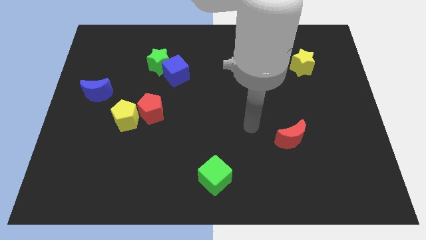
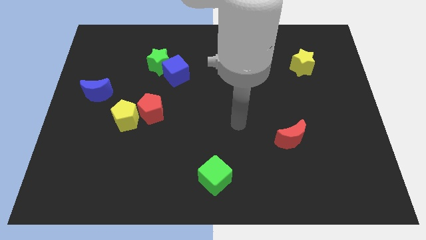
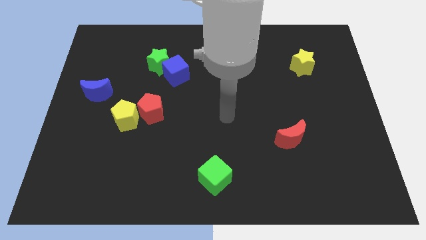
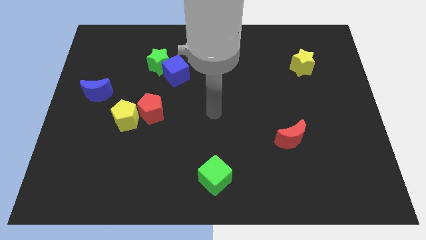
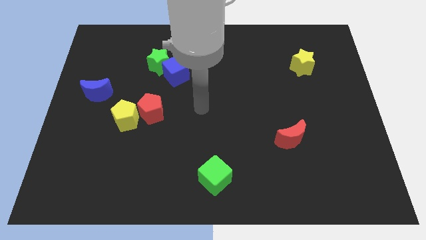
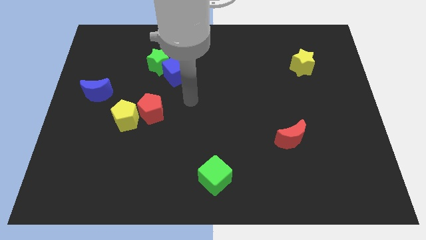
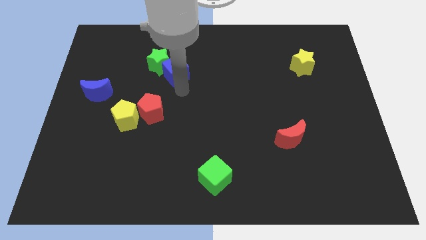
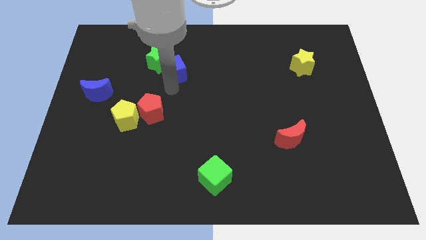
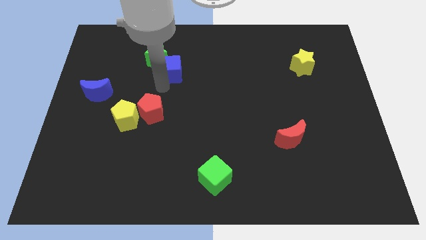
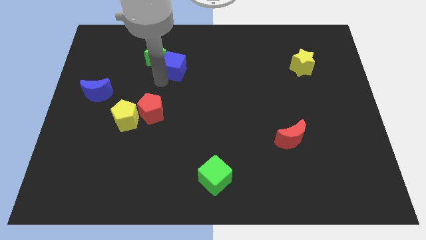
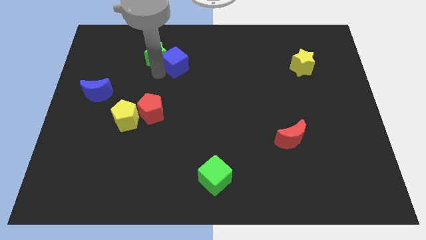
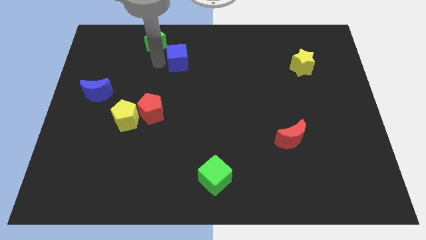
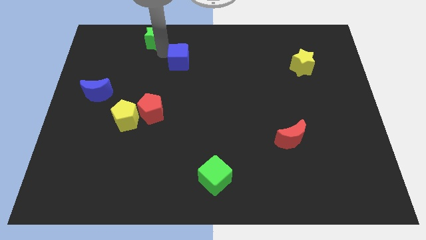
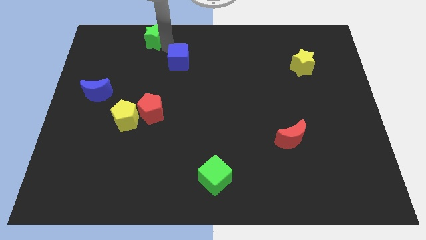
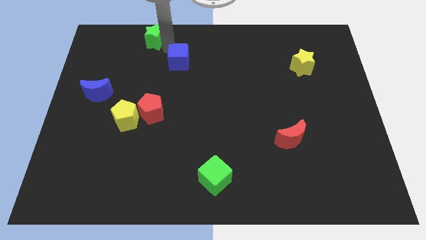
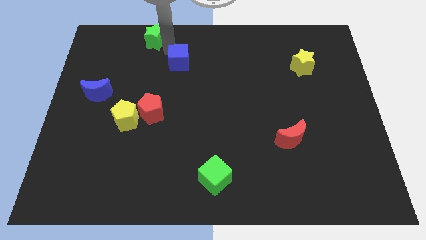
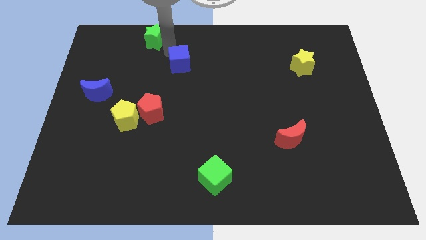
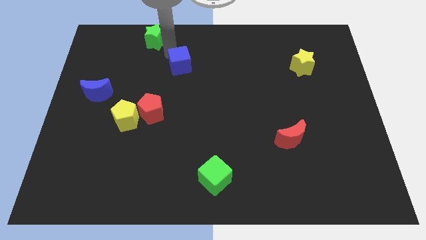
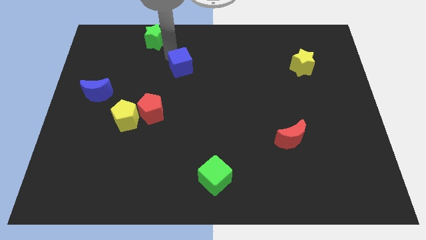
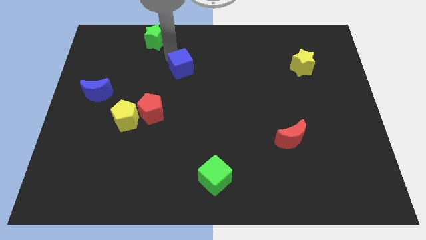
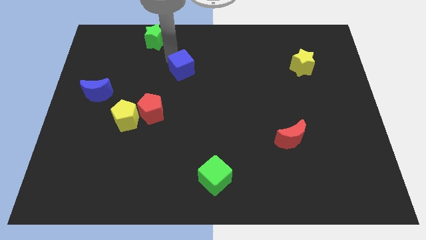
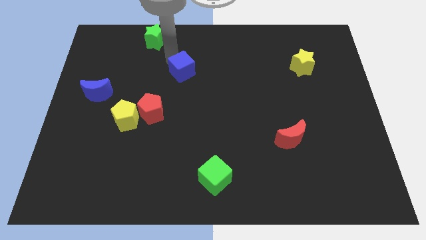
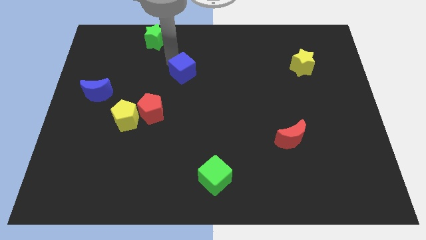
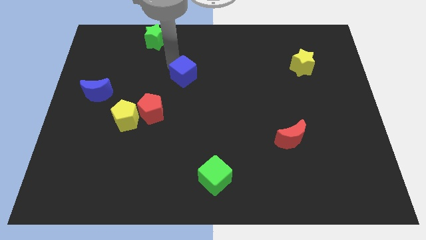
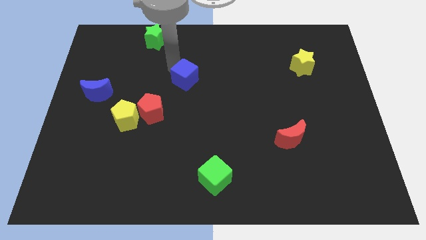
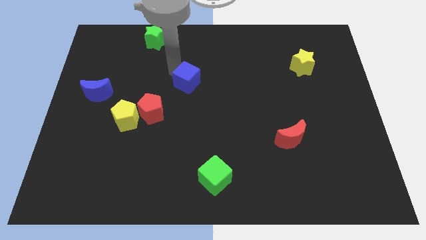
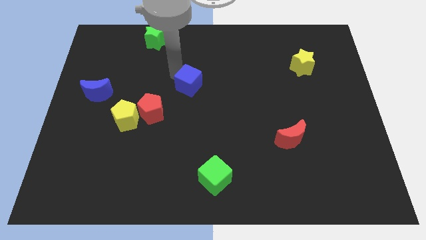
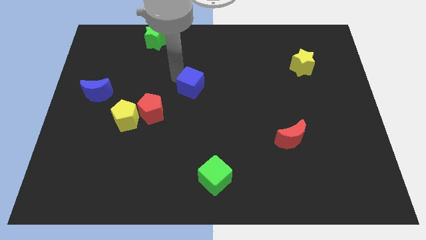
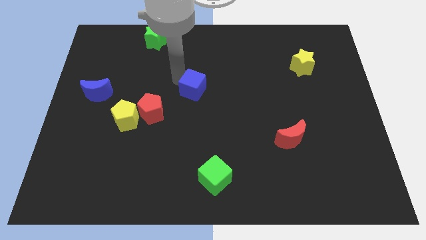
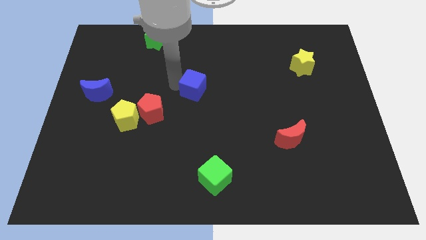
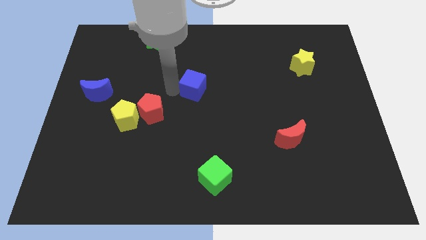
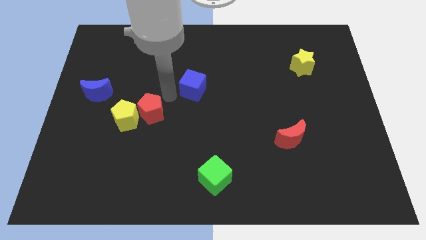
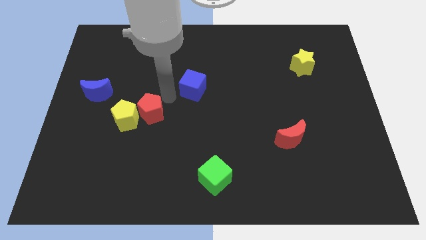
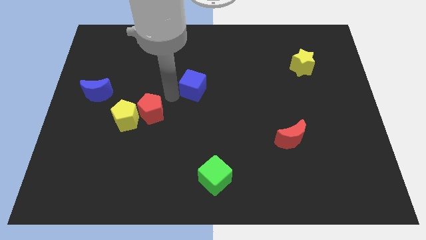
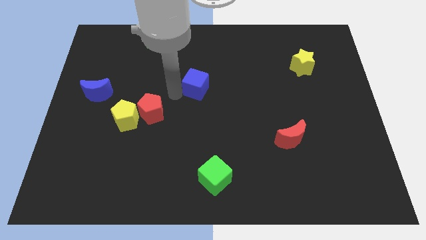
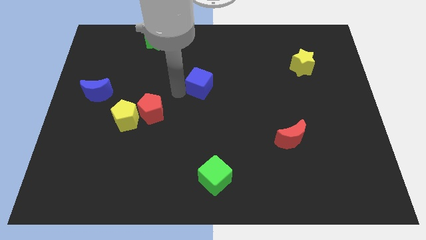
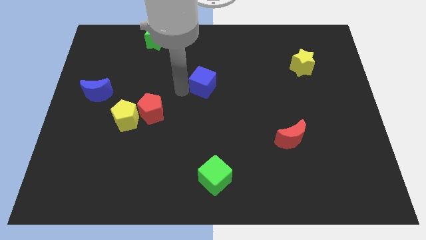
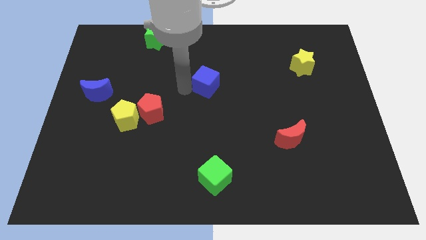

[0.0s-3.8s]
slide the blue cube a little to the right

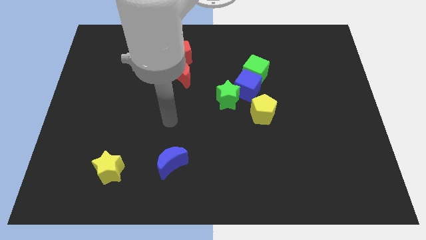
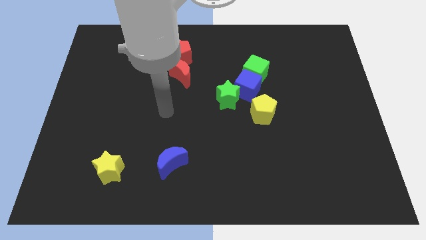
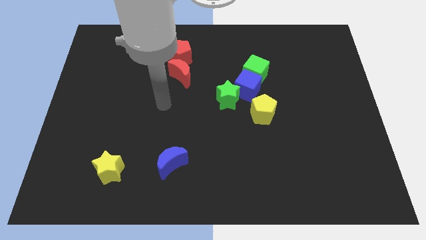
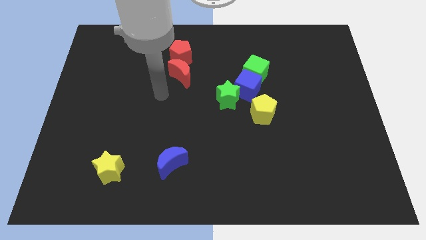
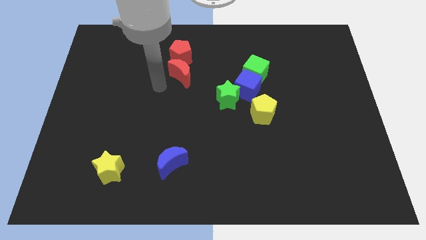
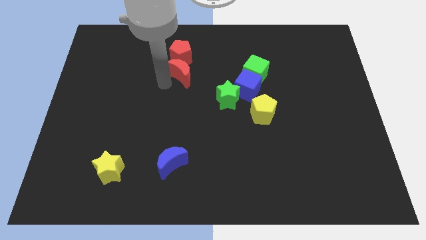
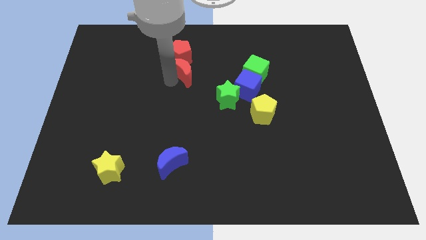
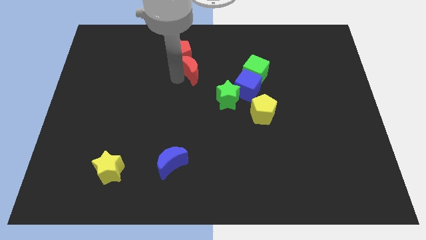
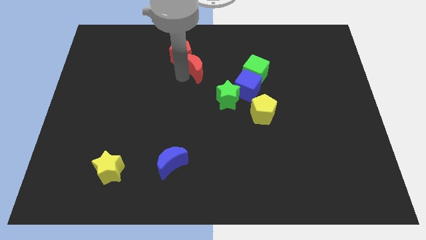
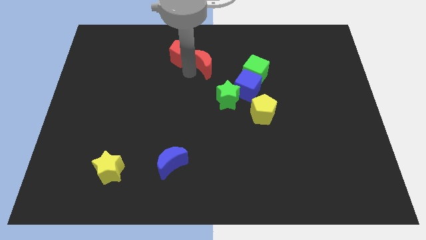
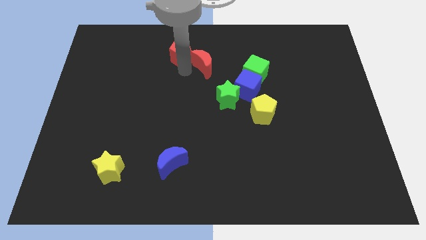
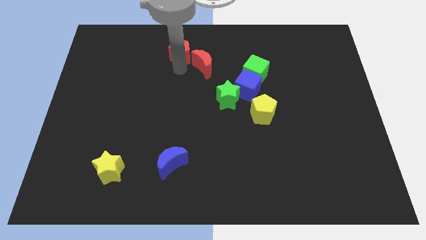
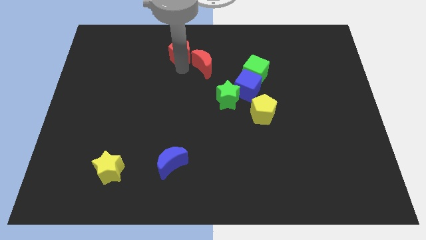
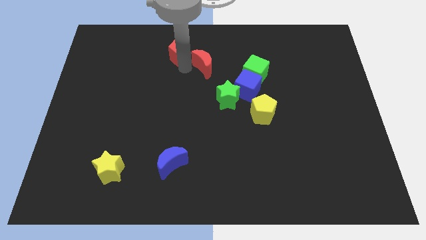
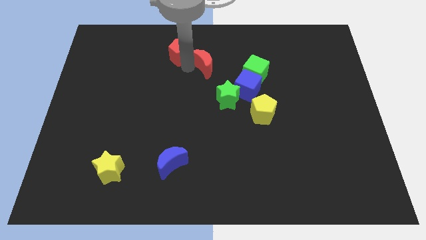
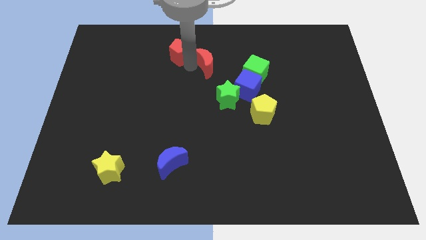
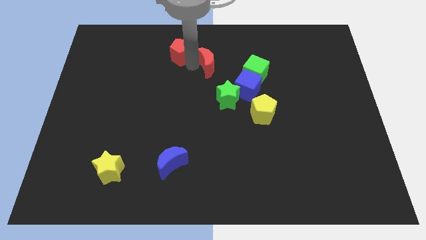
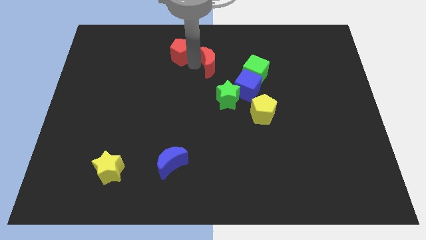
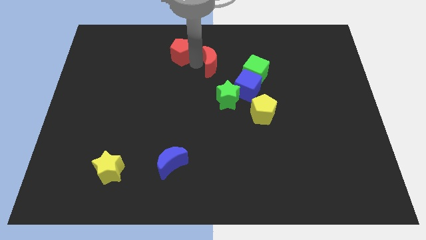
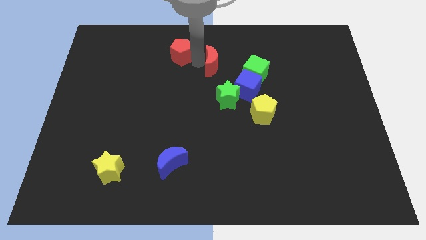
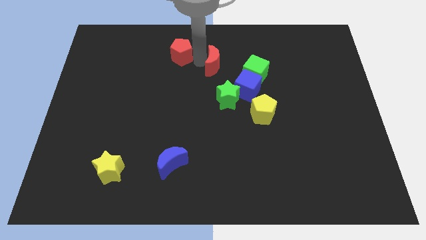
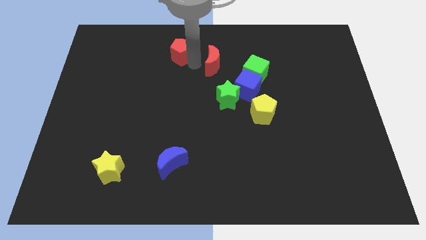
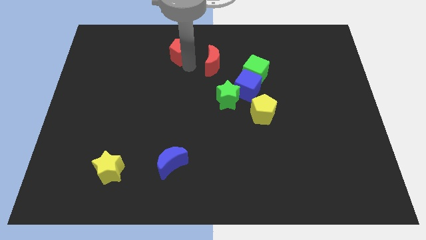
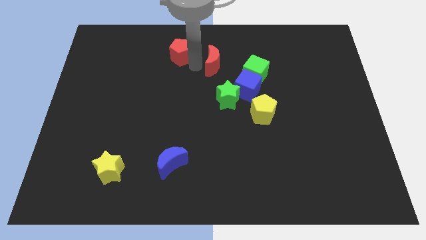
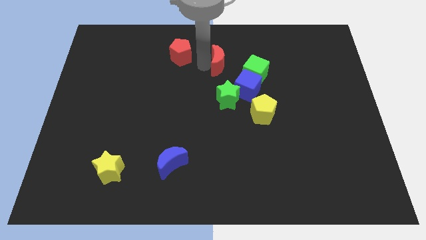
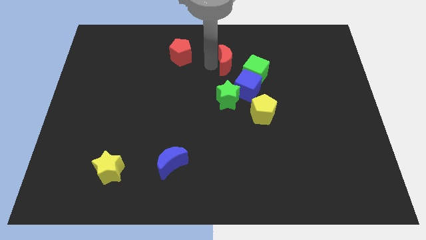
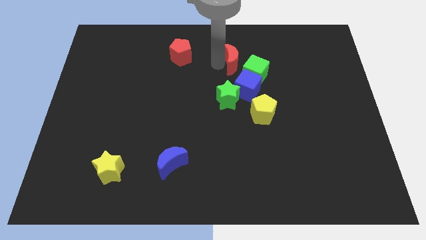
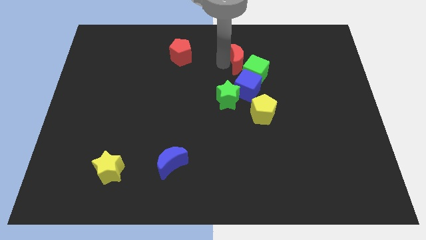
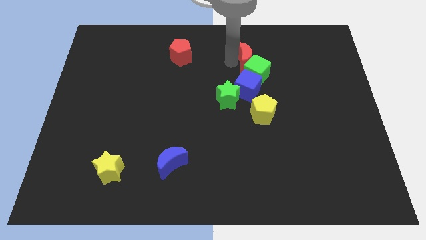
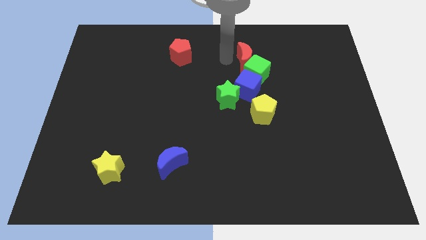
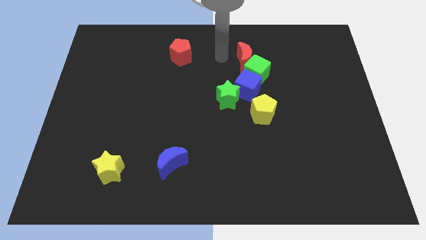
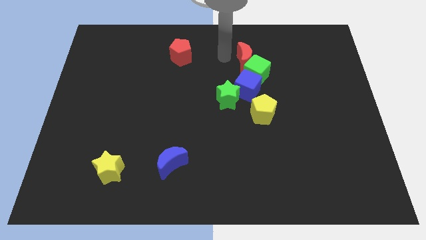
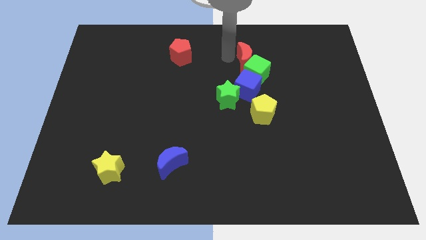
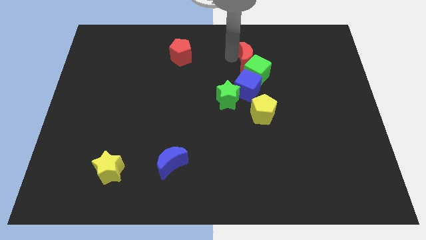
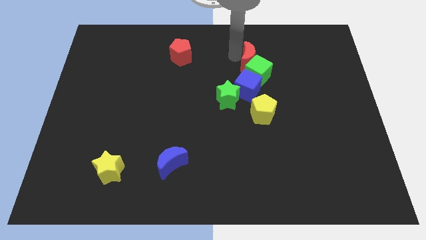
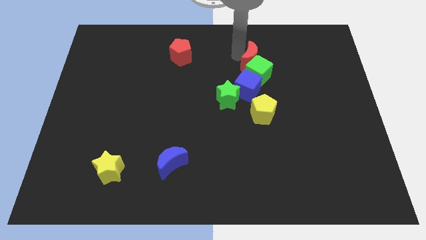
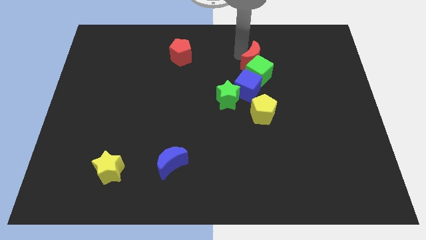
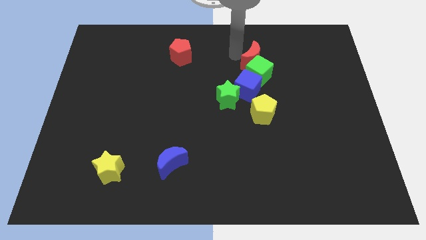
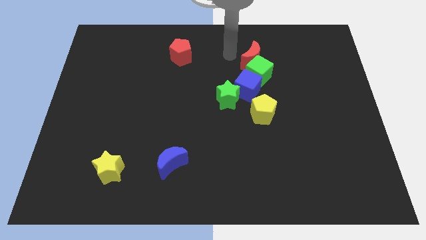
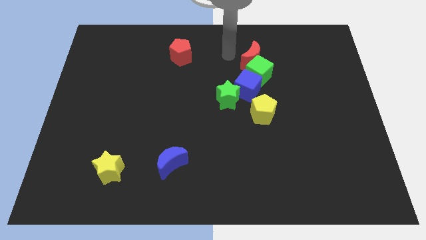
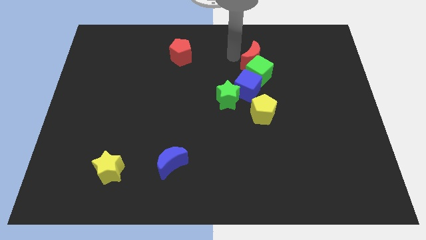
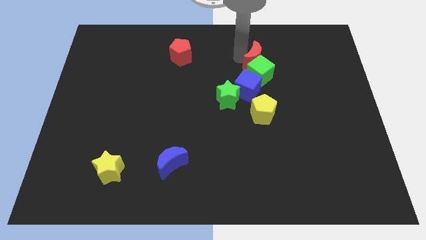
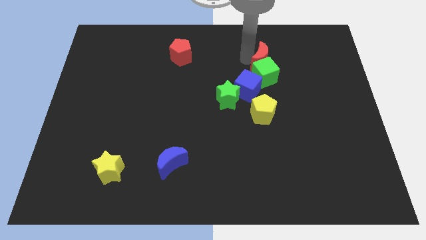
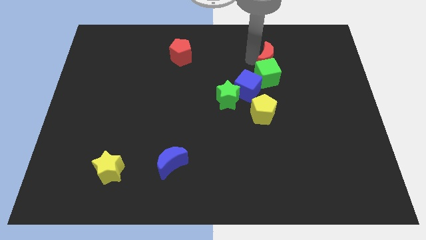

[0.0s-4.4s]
push the red moon to the right

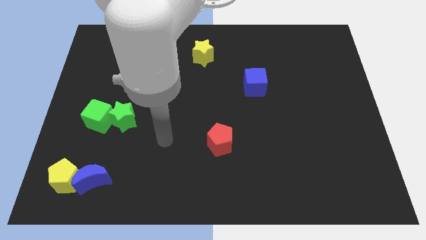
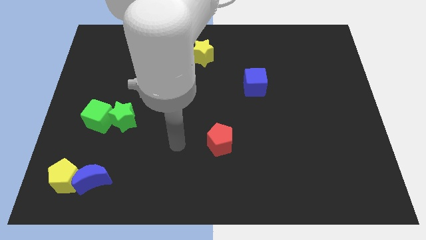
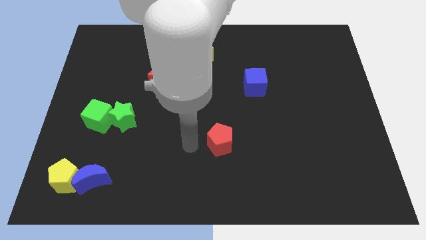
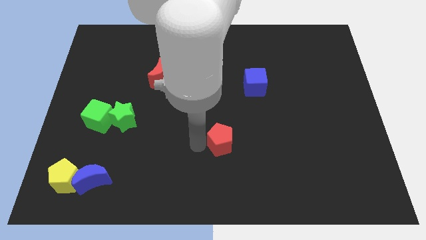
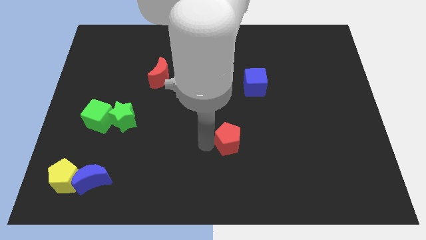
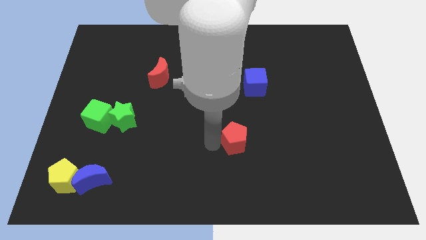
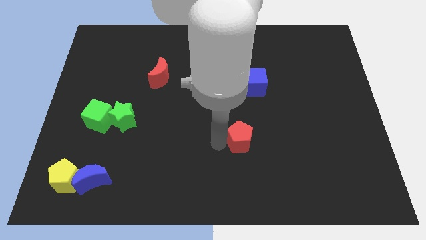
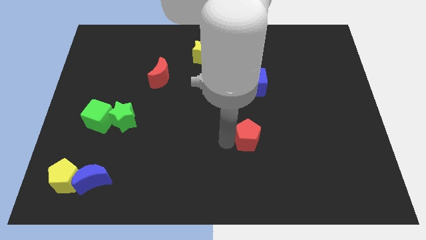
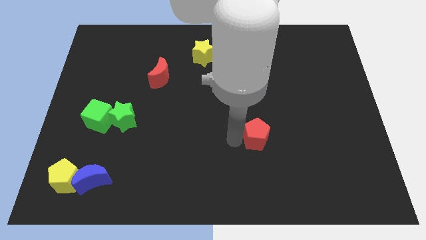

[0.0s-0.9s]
move the red pentagon a little right
